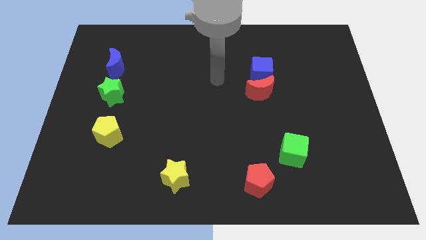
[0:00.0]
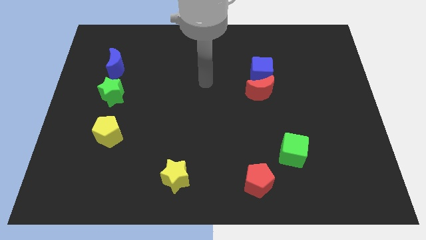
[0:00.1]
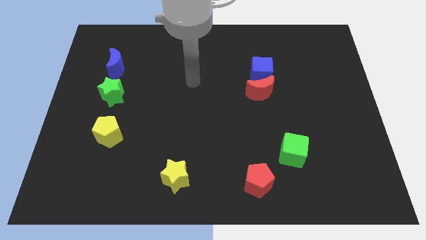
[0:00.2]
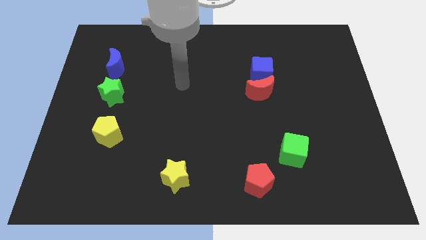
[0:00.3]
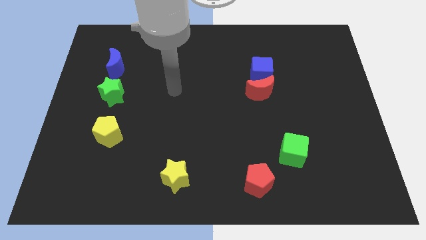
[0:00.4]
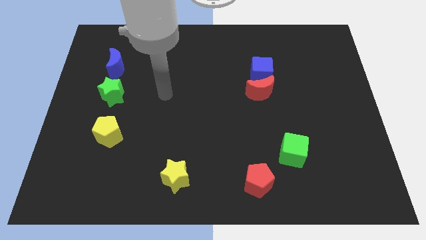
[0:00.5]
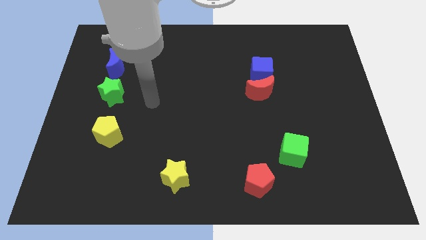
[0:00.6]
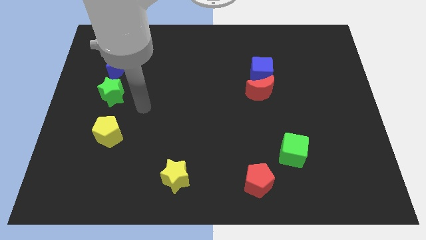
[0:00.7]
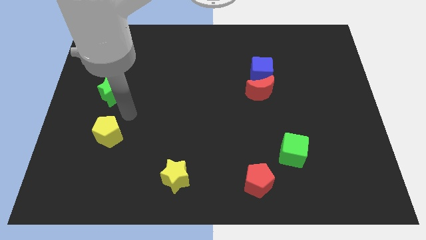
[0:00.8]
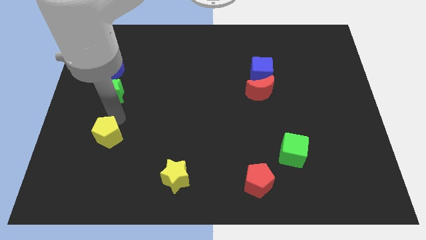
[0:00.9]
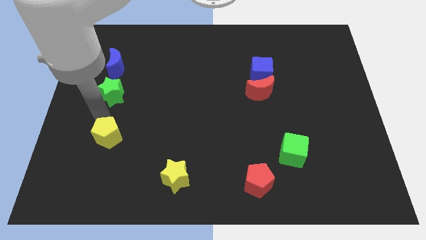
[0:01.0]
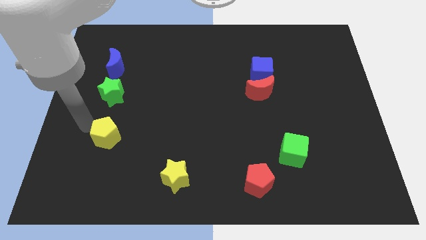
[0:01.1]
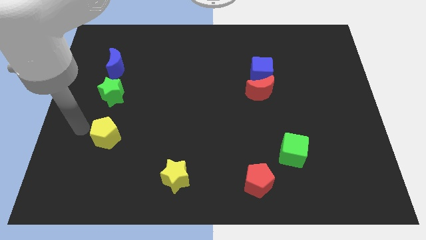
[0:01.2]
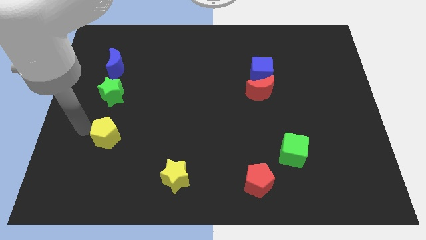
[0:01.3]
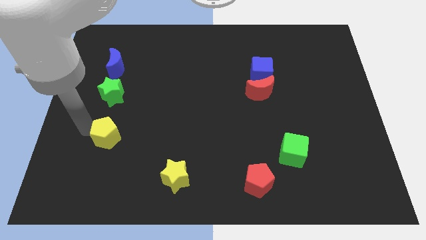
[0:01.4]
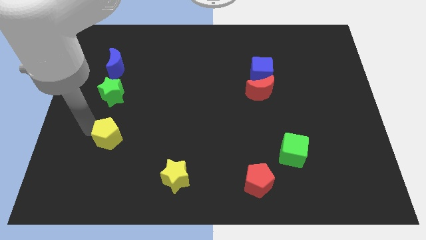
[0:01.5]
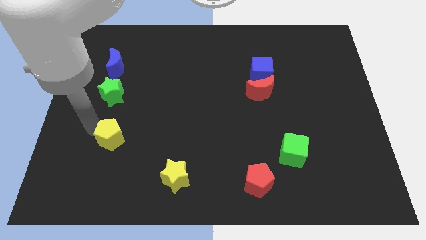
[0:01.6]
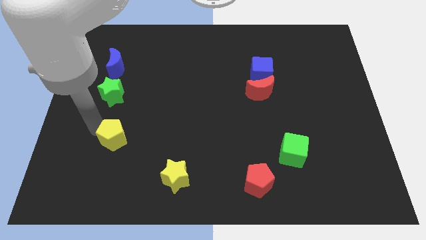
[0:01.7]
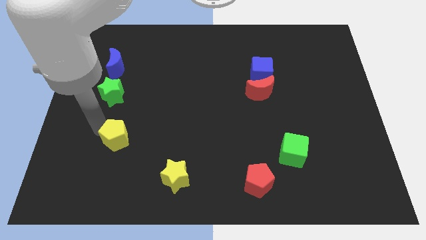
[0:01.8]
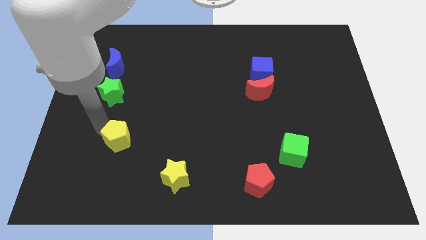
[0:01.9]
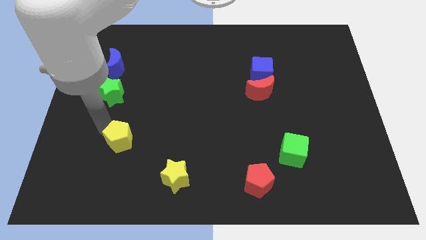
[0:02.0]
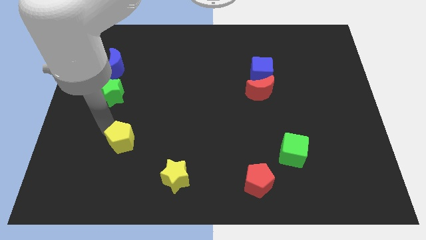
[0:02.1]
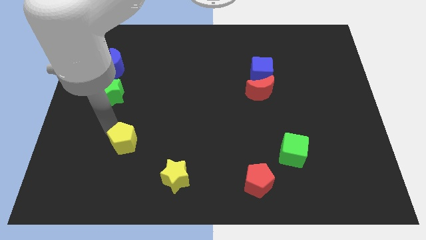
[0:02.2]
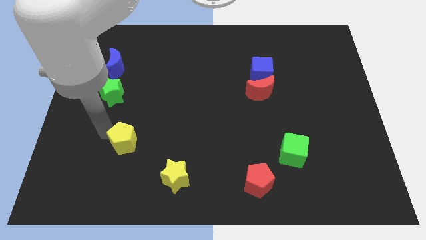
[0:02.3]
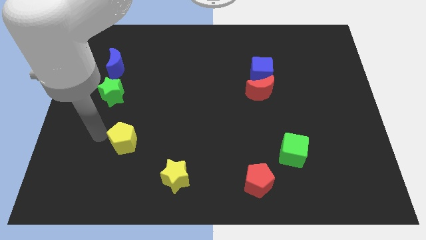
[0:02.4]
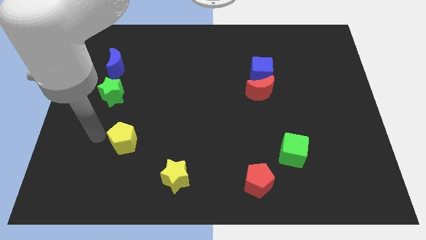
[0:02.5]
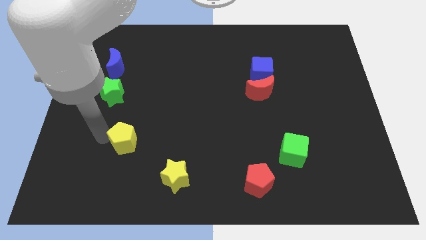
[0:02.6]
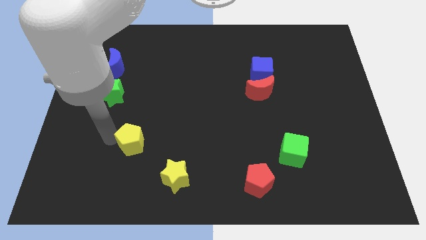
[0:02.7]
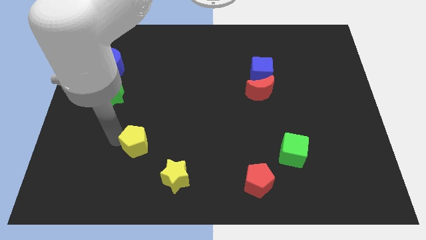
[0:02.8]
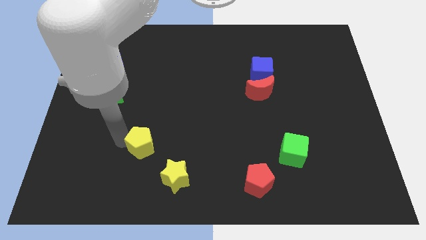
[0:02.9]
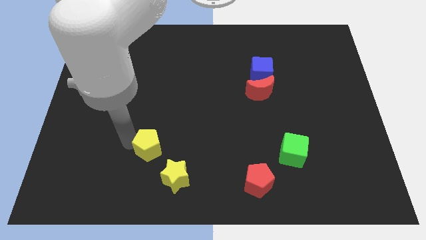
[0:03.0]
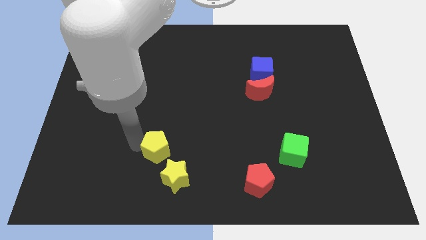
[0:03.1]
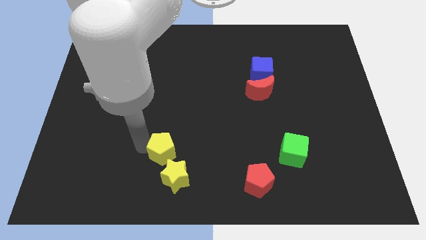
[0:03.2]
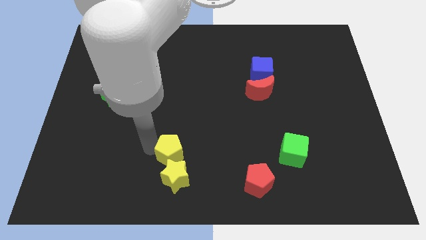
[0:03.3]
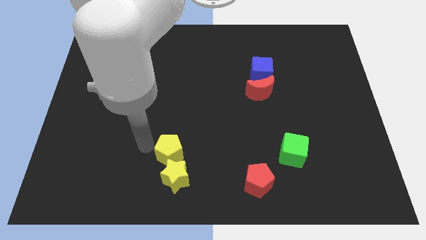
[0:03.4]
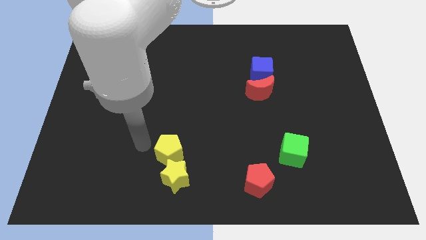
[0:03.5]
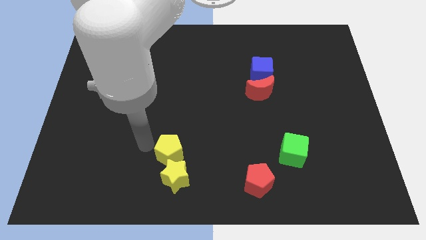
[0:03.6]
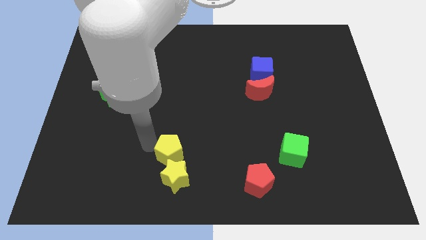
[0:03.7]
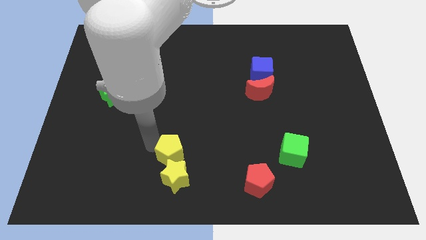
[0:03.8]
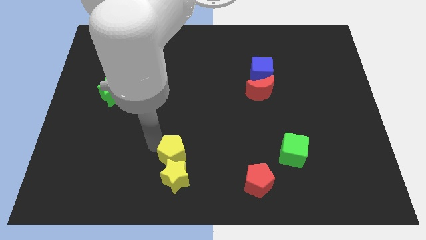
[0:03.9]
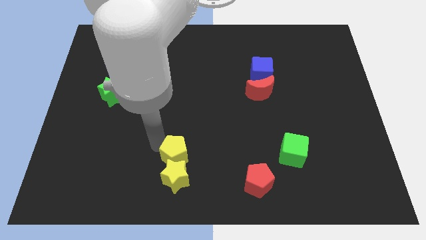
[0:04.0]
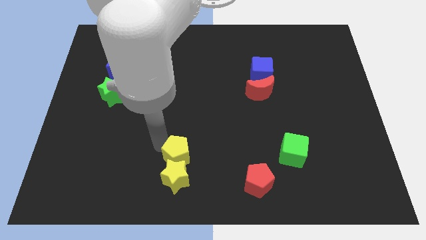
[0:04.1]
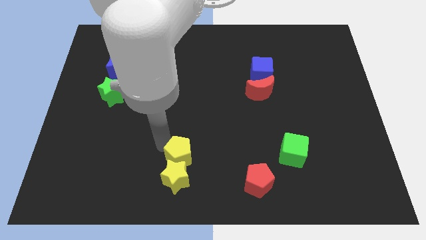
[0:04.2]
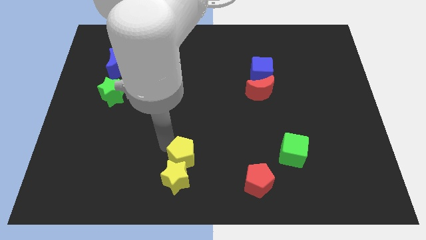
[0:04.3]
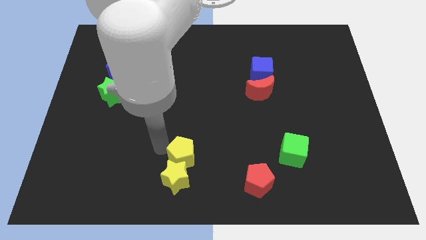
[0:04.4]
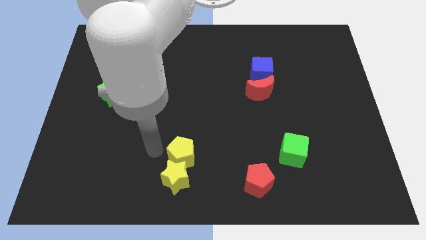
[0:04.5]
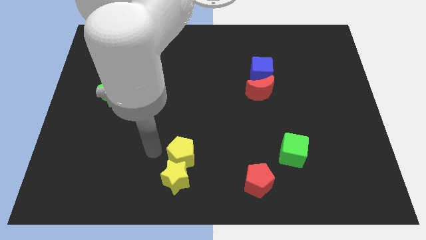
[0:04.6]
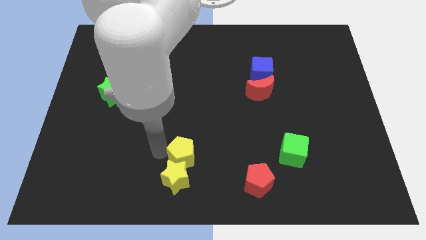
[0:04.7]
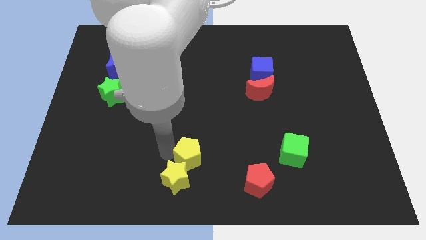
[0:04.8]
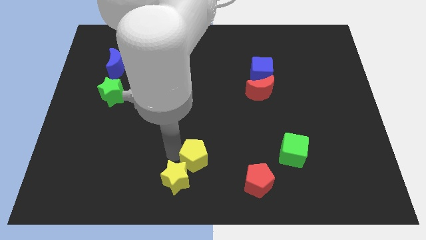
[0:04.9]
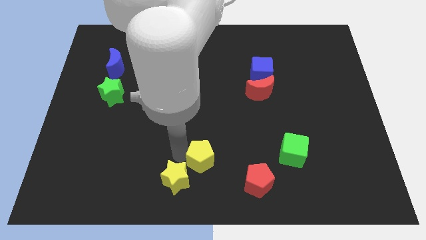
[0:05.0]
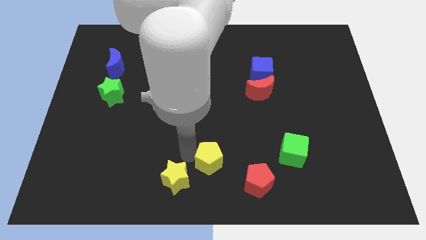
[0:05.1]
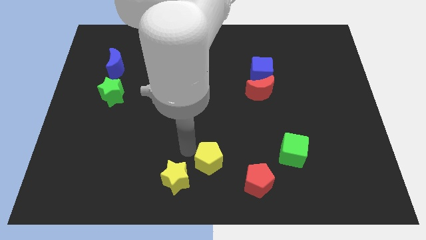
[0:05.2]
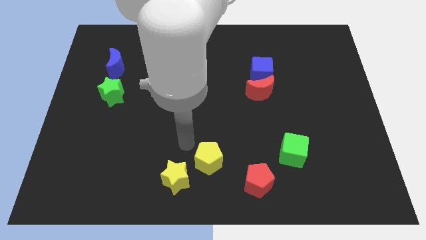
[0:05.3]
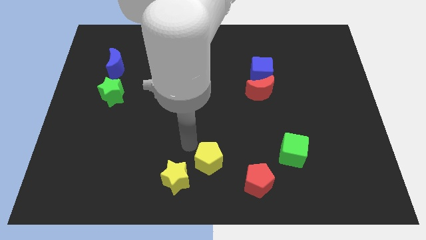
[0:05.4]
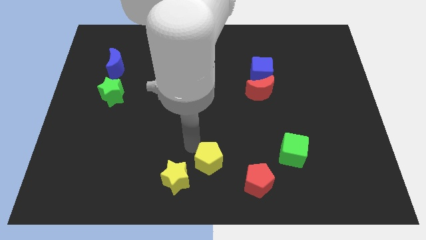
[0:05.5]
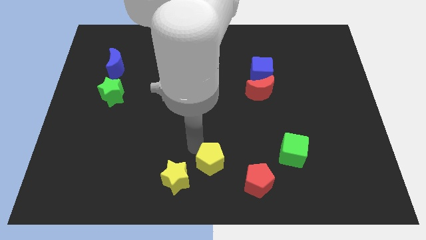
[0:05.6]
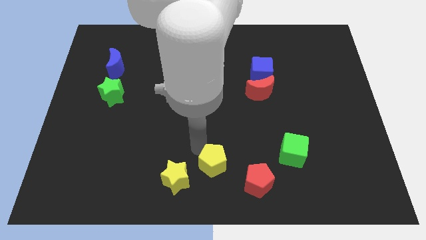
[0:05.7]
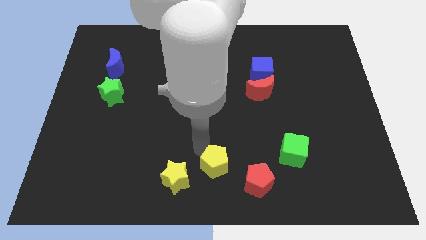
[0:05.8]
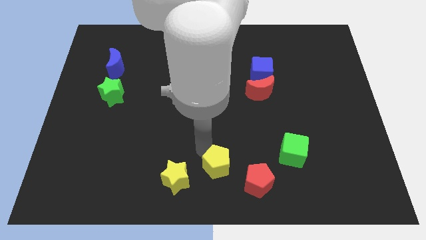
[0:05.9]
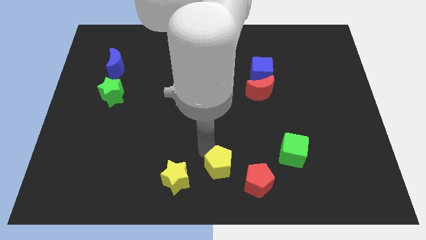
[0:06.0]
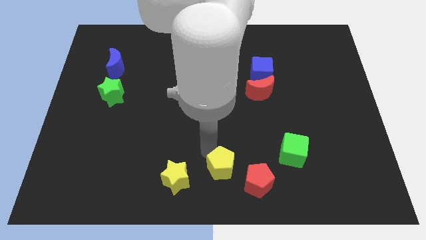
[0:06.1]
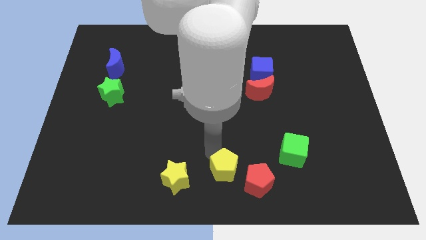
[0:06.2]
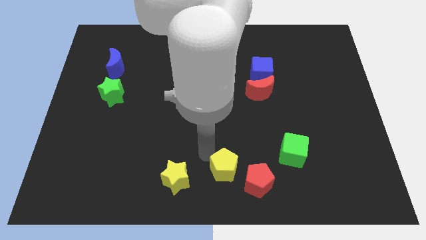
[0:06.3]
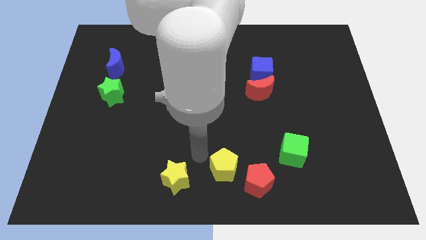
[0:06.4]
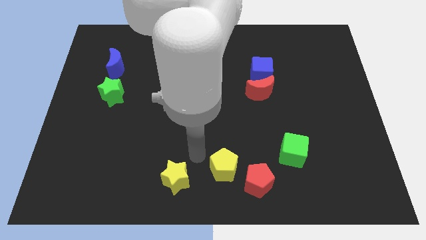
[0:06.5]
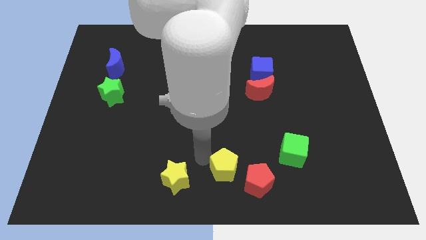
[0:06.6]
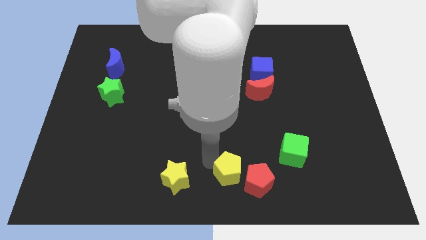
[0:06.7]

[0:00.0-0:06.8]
push the yellow pentagon close to the red pentagon
